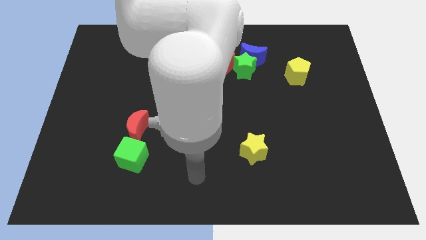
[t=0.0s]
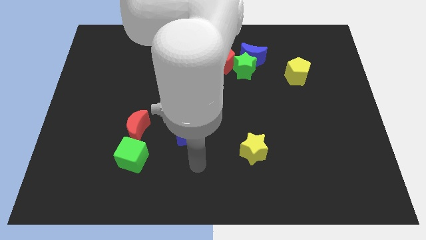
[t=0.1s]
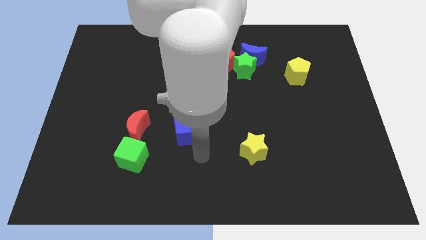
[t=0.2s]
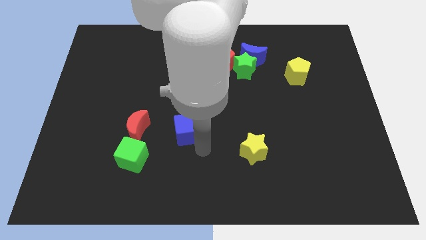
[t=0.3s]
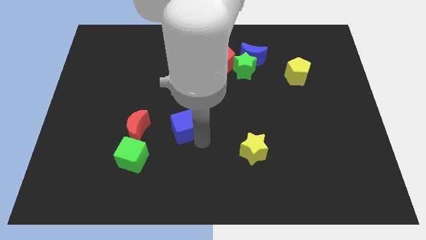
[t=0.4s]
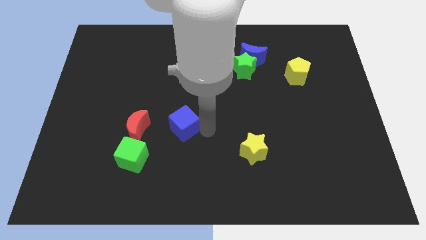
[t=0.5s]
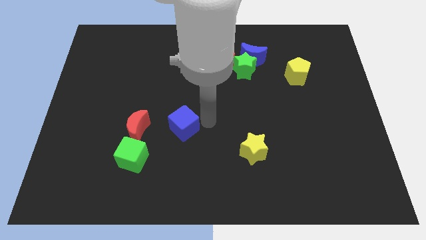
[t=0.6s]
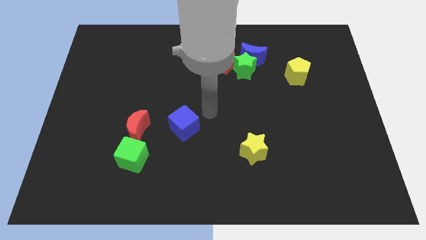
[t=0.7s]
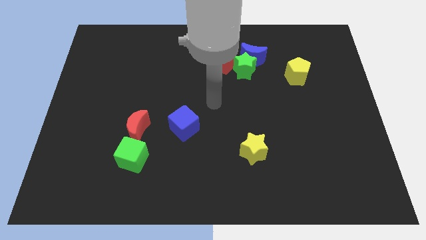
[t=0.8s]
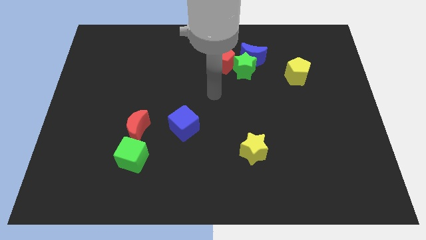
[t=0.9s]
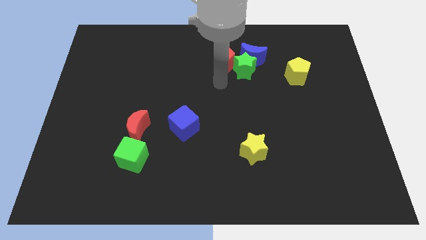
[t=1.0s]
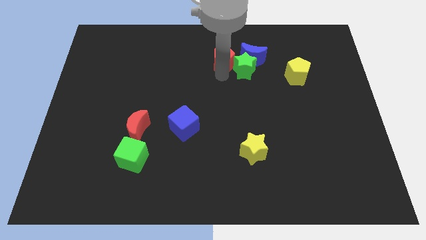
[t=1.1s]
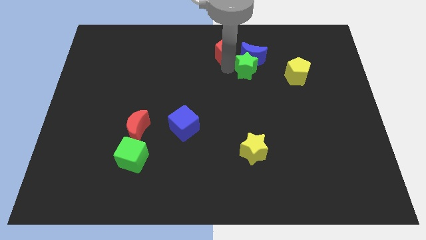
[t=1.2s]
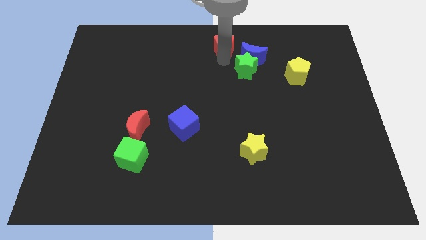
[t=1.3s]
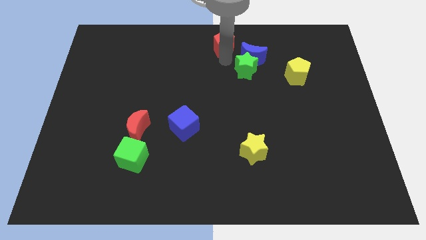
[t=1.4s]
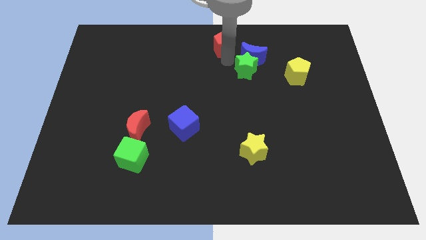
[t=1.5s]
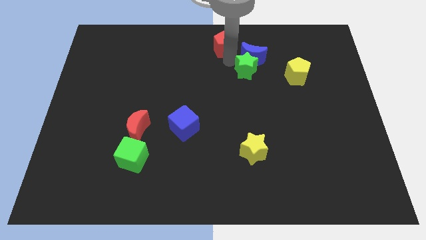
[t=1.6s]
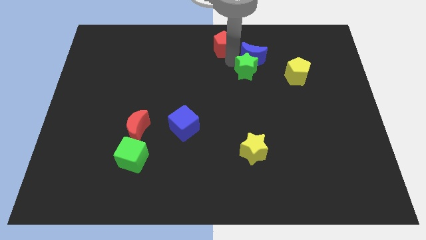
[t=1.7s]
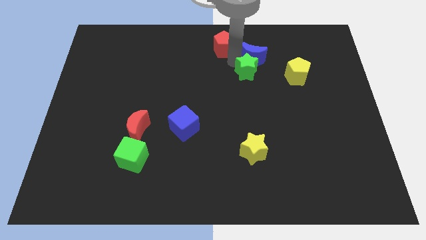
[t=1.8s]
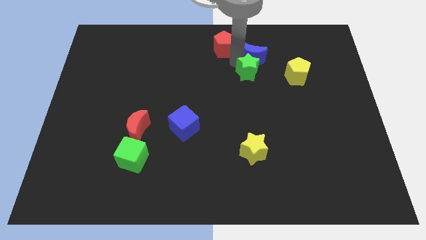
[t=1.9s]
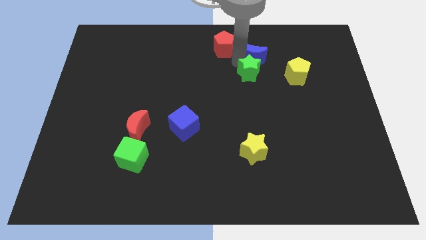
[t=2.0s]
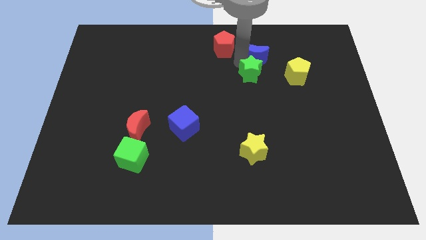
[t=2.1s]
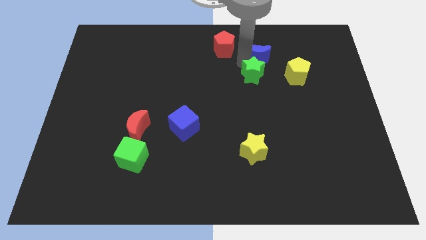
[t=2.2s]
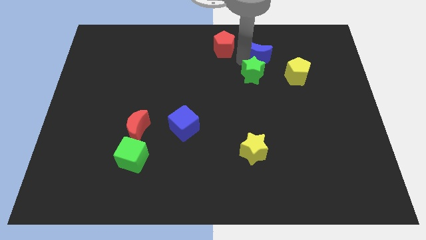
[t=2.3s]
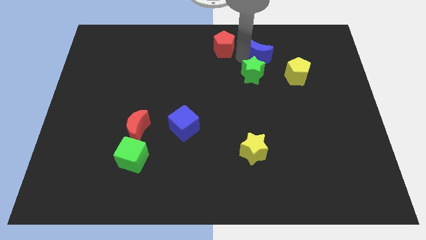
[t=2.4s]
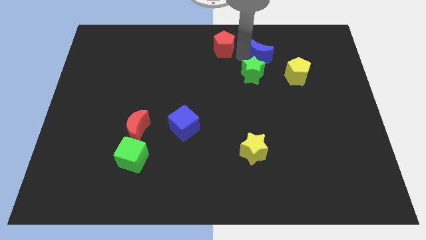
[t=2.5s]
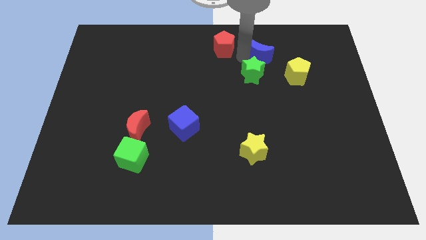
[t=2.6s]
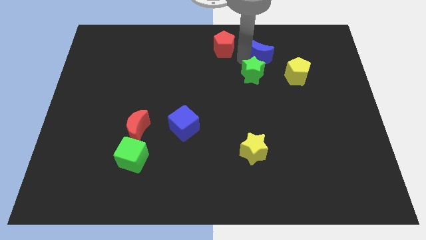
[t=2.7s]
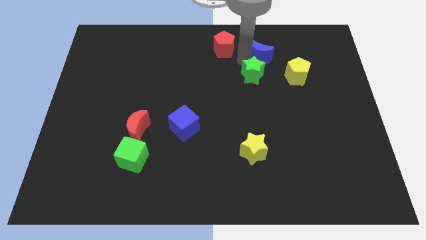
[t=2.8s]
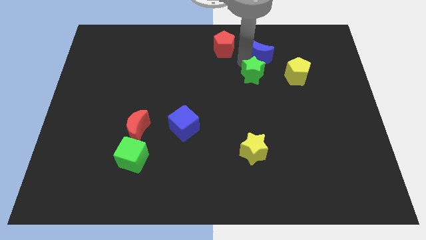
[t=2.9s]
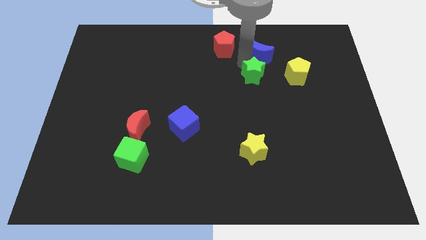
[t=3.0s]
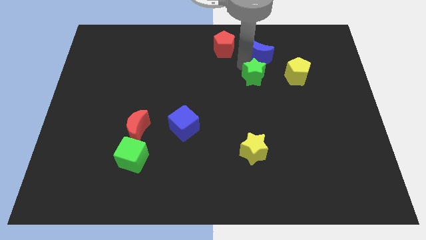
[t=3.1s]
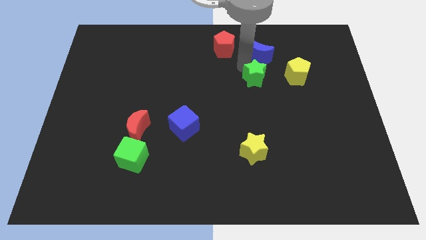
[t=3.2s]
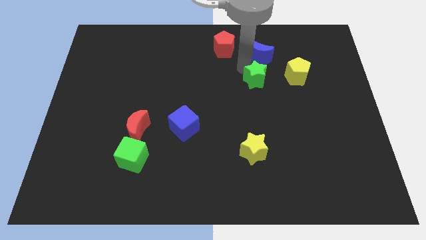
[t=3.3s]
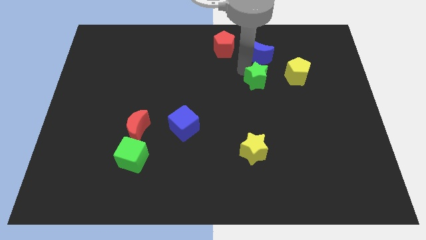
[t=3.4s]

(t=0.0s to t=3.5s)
separate the green star from the blue moon and red pentagon

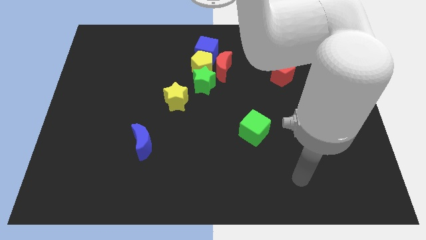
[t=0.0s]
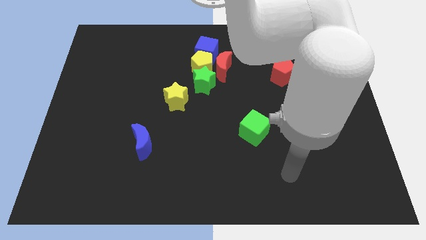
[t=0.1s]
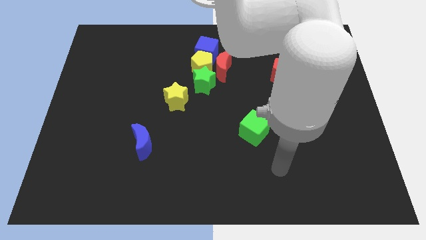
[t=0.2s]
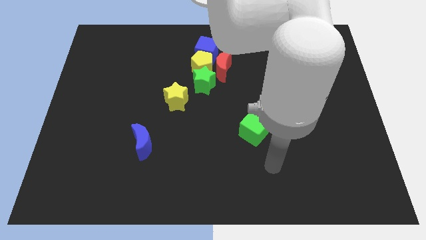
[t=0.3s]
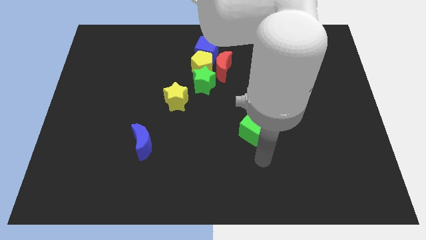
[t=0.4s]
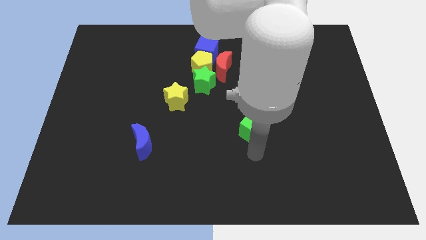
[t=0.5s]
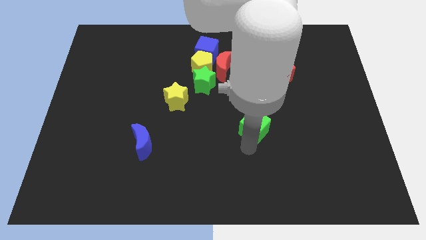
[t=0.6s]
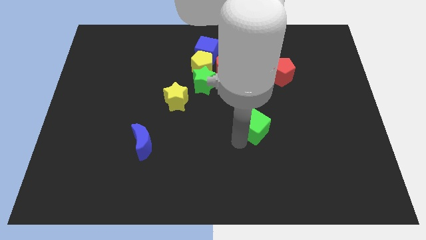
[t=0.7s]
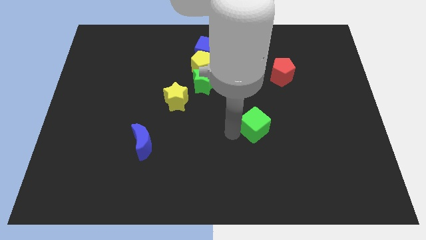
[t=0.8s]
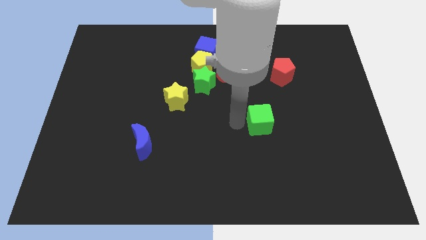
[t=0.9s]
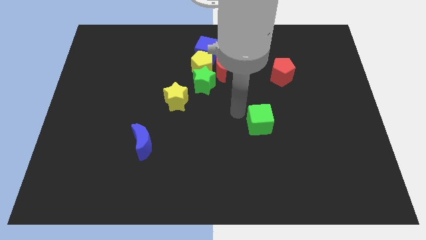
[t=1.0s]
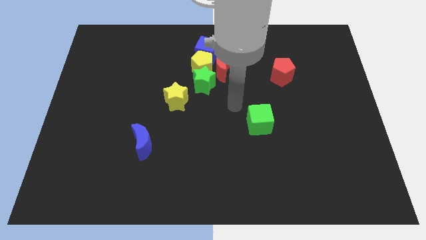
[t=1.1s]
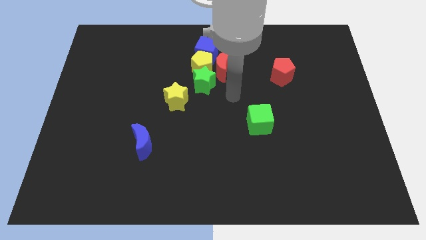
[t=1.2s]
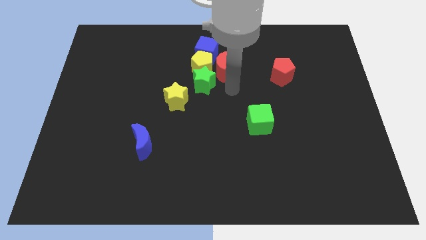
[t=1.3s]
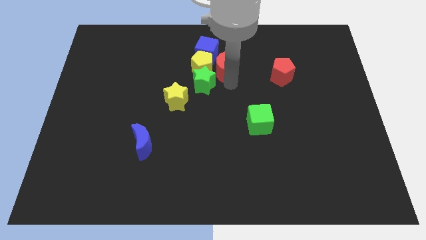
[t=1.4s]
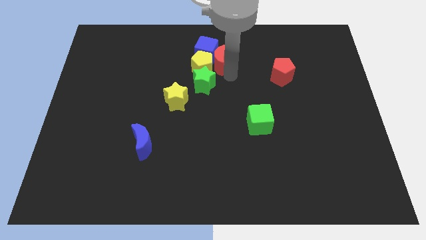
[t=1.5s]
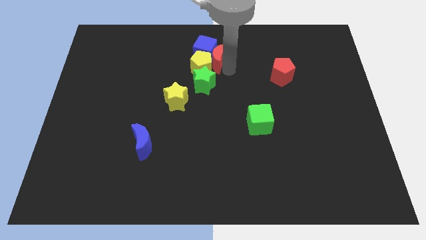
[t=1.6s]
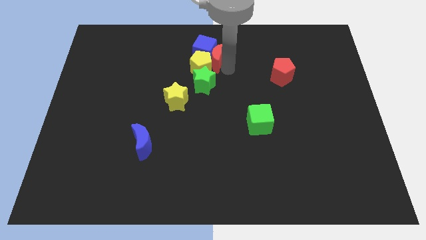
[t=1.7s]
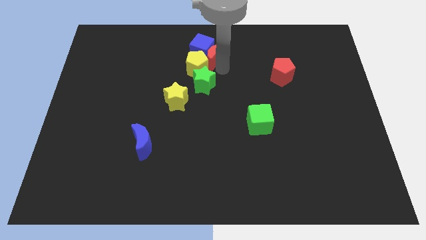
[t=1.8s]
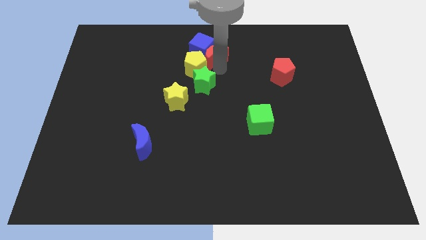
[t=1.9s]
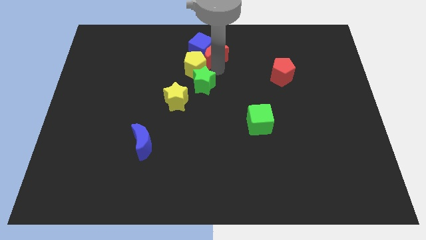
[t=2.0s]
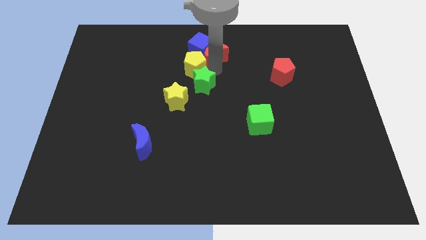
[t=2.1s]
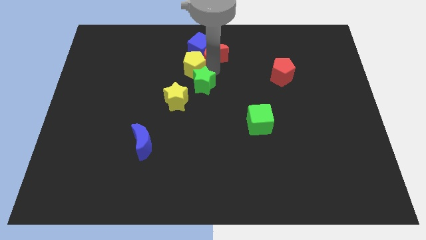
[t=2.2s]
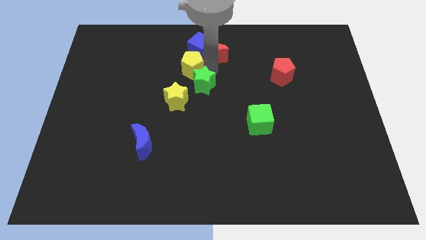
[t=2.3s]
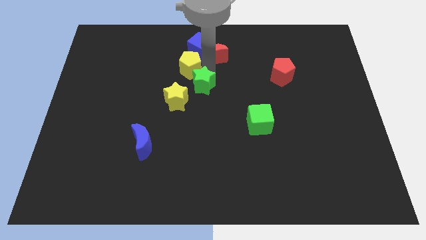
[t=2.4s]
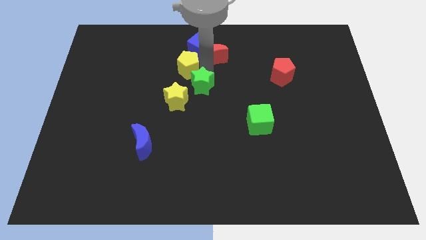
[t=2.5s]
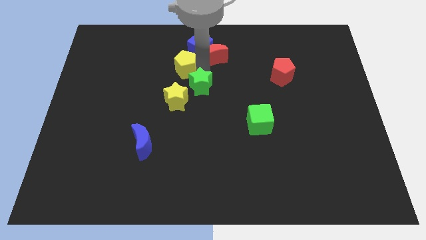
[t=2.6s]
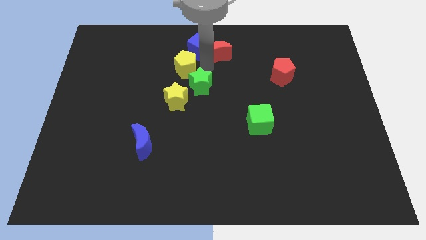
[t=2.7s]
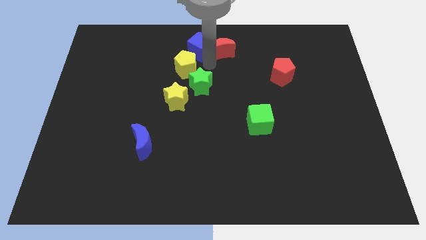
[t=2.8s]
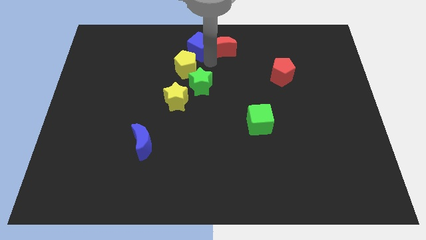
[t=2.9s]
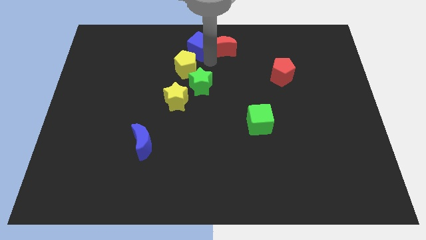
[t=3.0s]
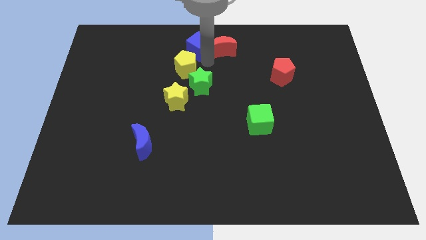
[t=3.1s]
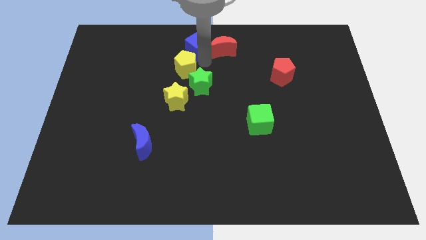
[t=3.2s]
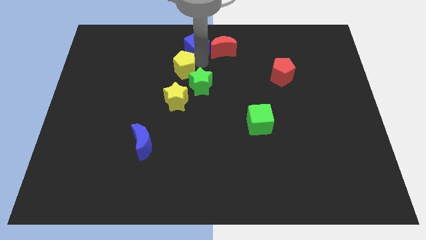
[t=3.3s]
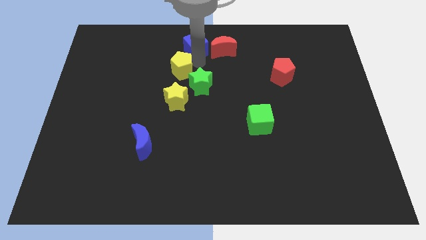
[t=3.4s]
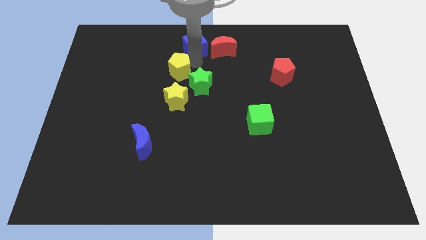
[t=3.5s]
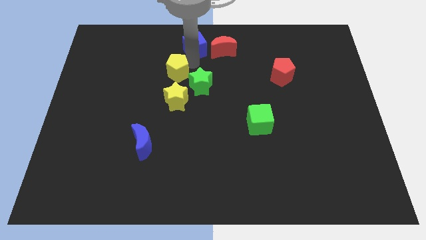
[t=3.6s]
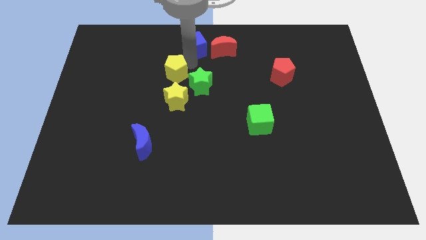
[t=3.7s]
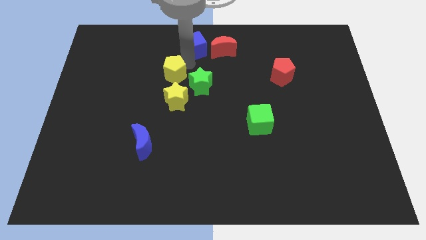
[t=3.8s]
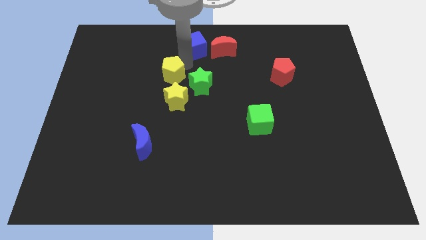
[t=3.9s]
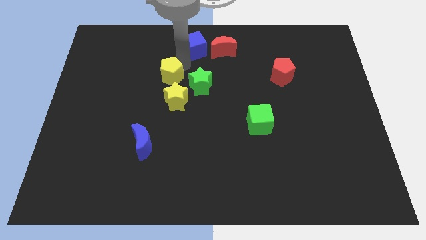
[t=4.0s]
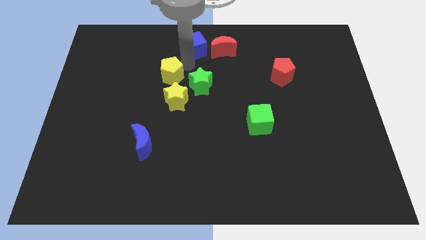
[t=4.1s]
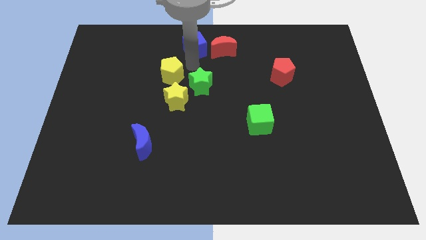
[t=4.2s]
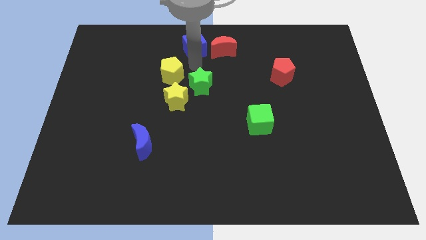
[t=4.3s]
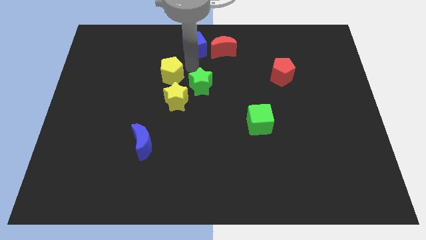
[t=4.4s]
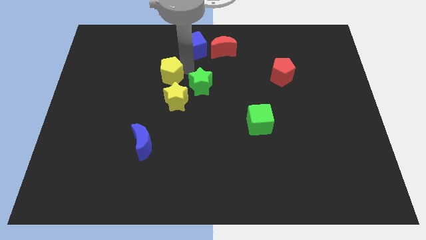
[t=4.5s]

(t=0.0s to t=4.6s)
pull the yellow pentagon apart from the clump

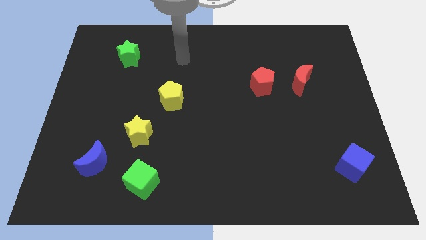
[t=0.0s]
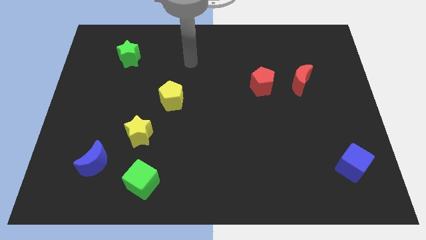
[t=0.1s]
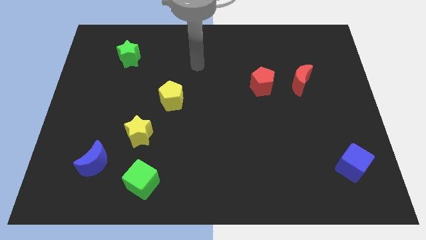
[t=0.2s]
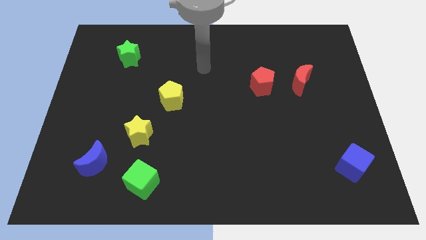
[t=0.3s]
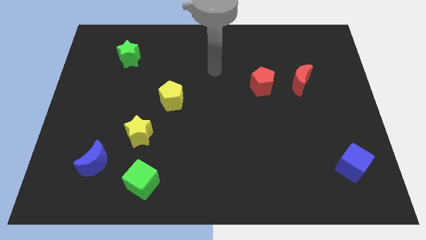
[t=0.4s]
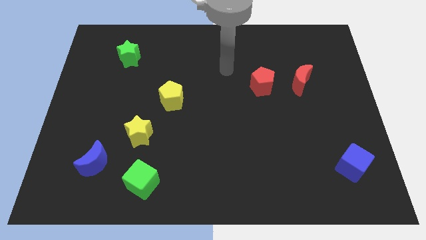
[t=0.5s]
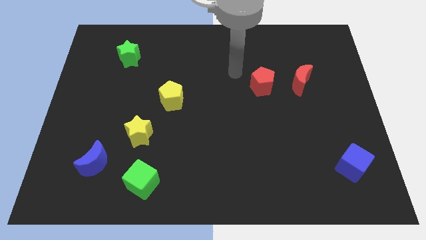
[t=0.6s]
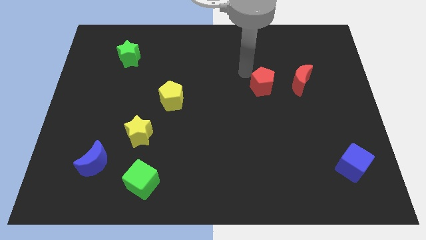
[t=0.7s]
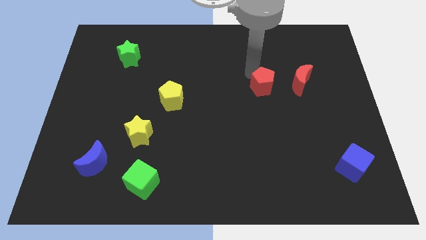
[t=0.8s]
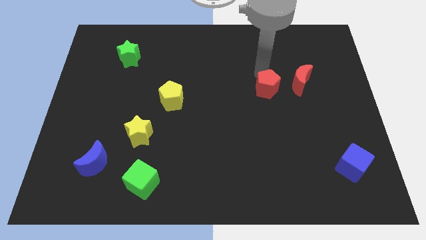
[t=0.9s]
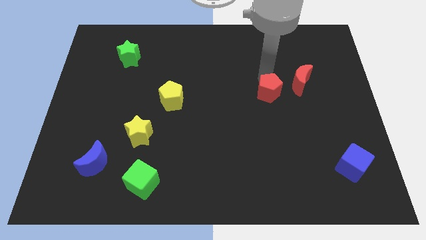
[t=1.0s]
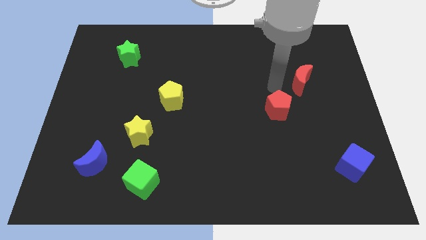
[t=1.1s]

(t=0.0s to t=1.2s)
separate the red moon from the red pentagon
